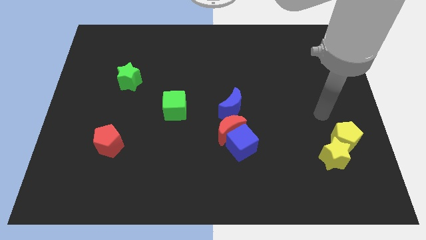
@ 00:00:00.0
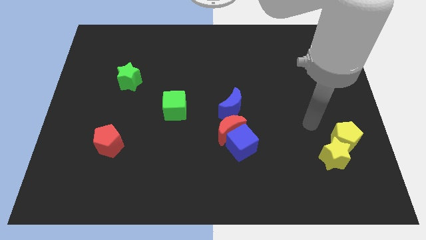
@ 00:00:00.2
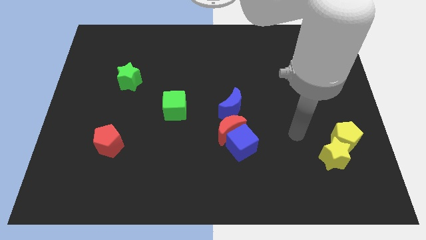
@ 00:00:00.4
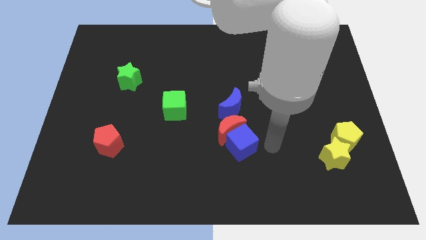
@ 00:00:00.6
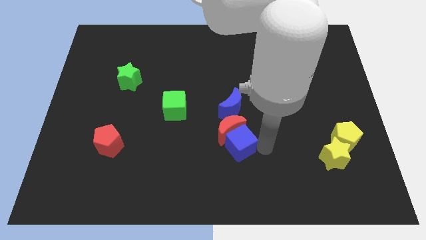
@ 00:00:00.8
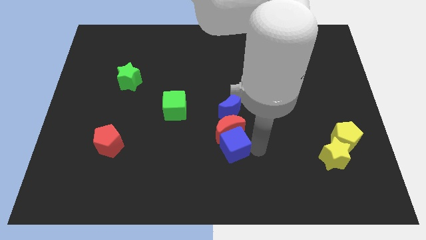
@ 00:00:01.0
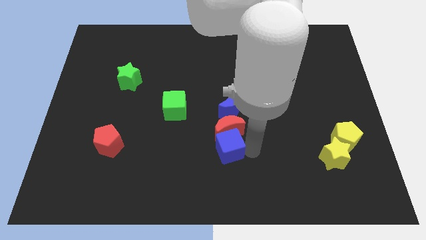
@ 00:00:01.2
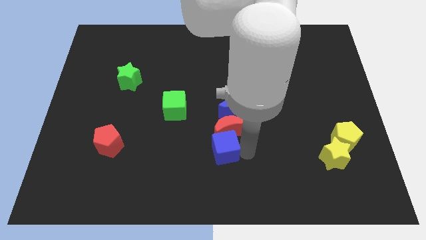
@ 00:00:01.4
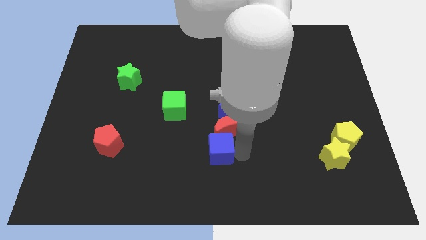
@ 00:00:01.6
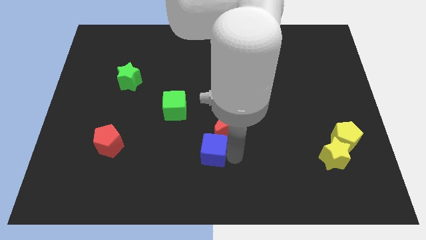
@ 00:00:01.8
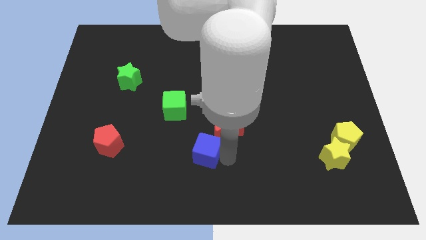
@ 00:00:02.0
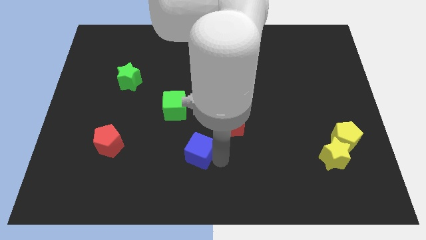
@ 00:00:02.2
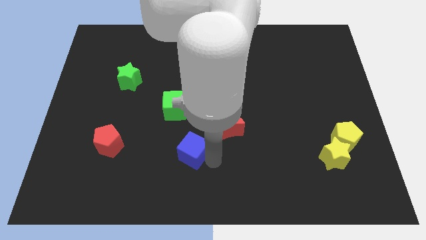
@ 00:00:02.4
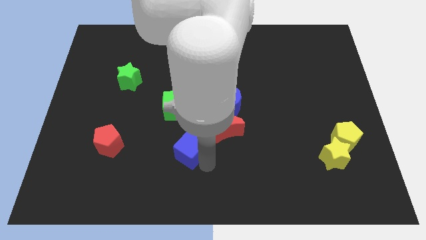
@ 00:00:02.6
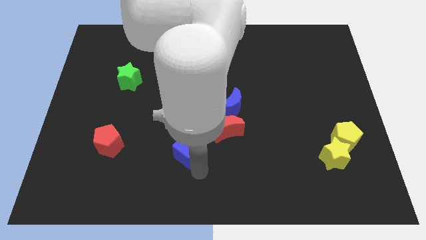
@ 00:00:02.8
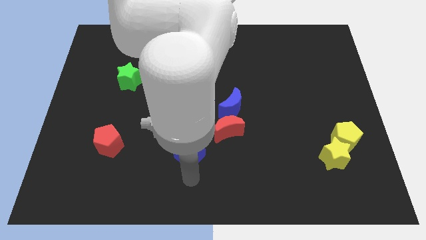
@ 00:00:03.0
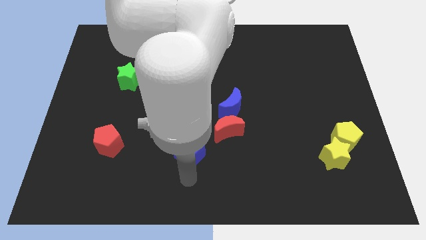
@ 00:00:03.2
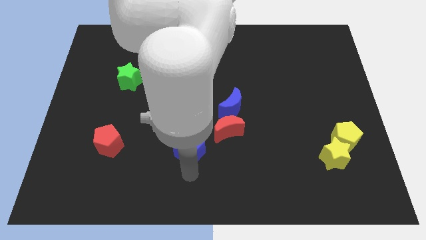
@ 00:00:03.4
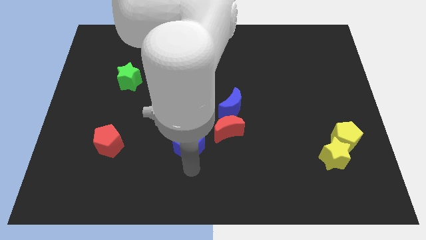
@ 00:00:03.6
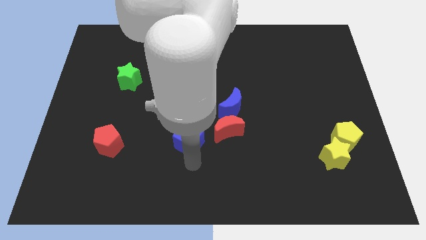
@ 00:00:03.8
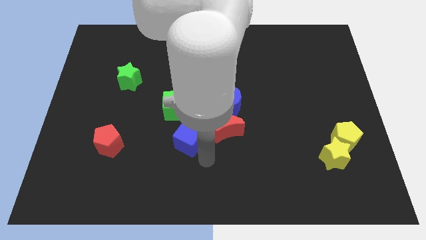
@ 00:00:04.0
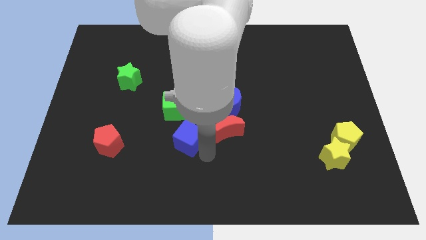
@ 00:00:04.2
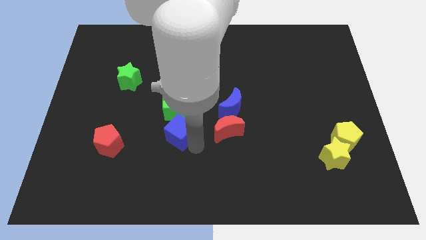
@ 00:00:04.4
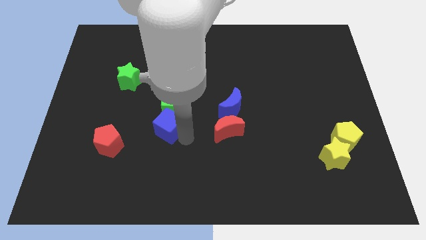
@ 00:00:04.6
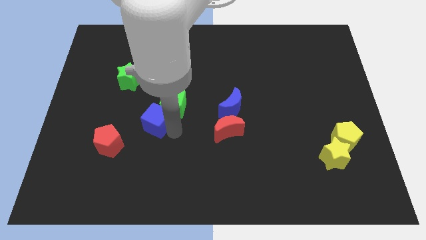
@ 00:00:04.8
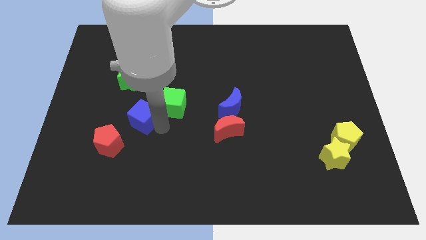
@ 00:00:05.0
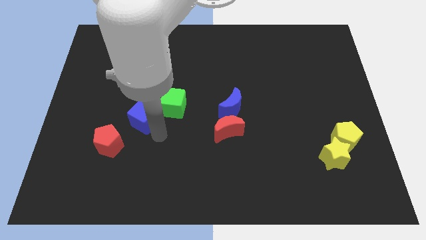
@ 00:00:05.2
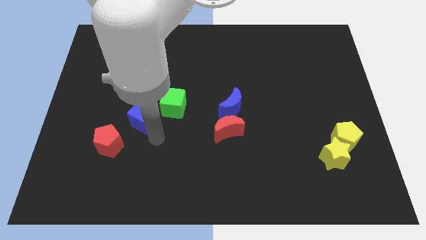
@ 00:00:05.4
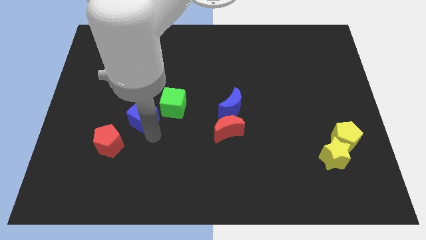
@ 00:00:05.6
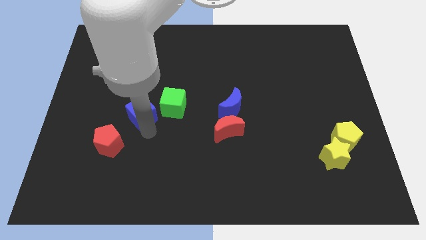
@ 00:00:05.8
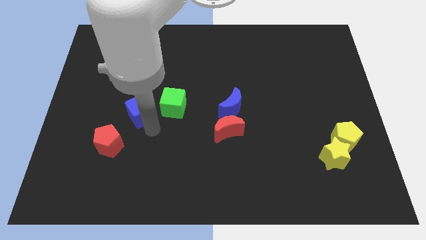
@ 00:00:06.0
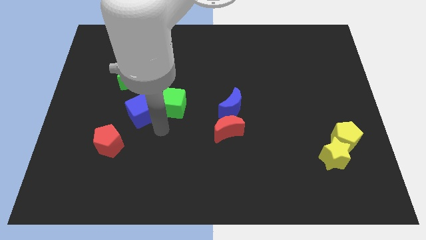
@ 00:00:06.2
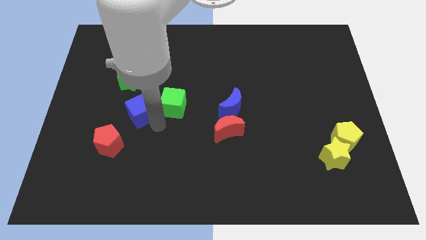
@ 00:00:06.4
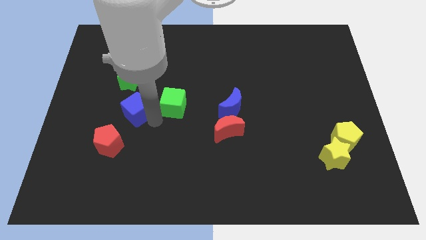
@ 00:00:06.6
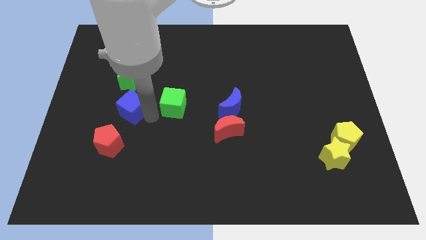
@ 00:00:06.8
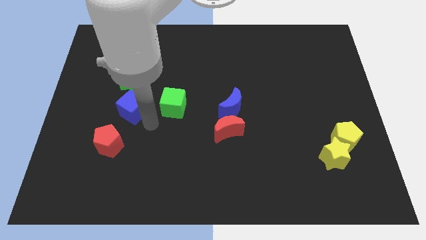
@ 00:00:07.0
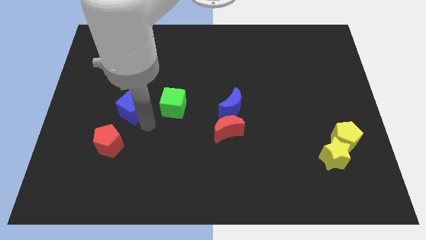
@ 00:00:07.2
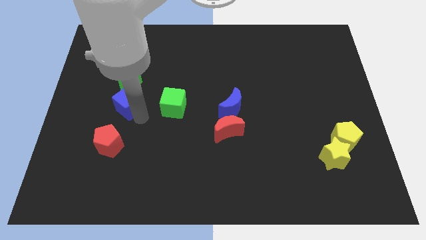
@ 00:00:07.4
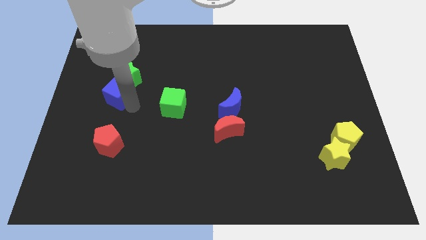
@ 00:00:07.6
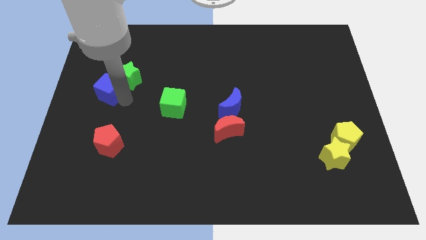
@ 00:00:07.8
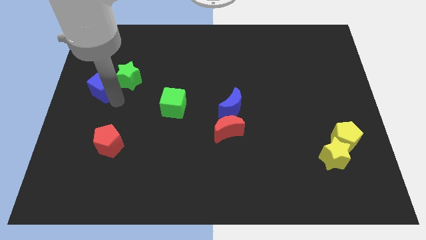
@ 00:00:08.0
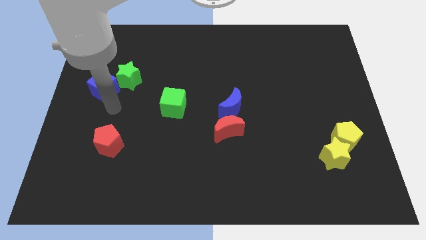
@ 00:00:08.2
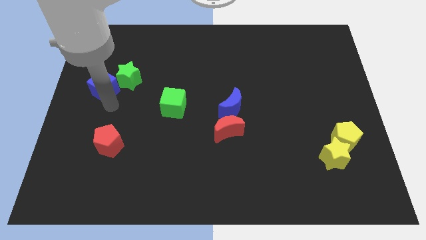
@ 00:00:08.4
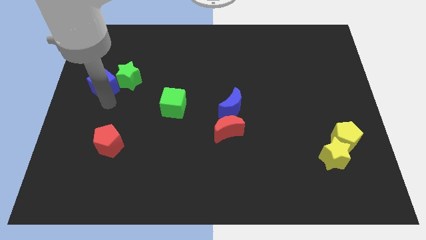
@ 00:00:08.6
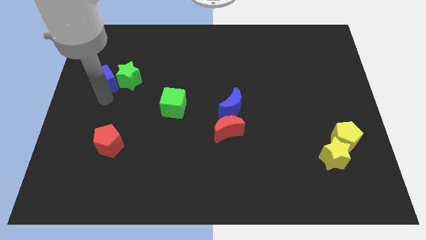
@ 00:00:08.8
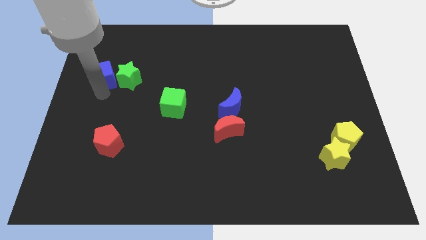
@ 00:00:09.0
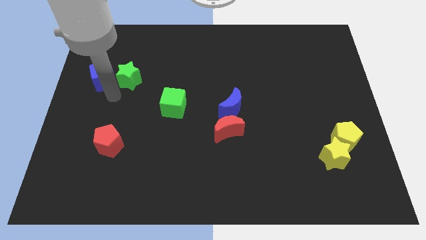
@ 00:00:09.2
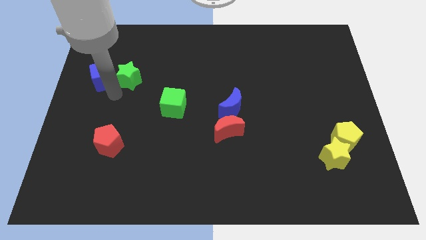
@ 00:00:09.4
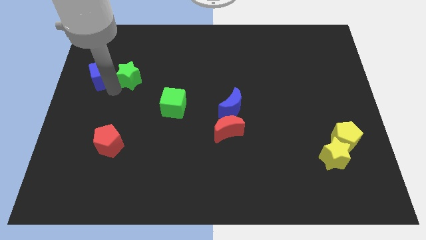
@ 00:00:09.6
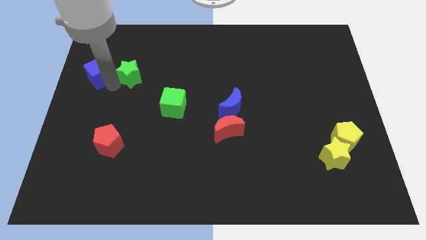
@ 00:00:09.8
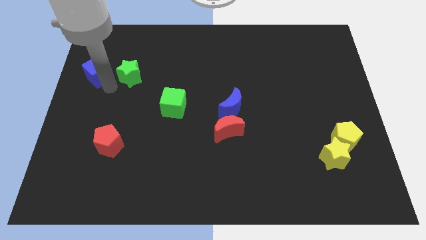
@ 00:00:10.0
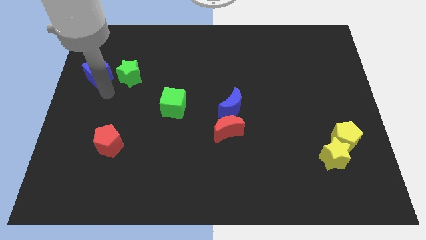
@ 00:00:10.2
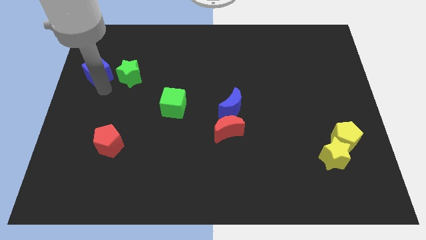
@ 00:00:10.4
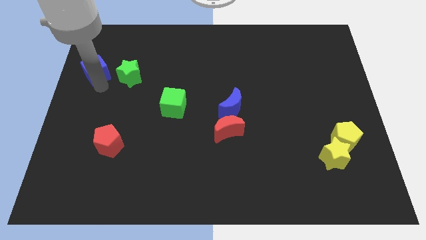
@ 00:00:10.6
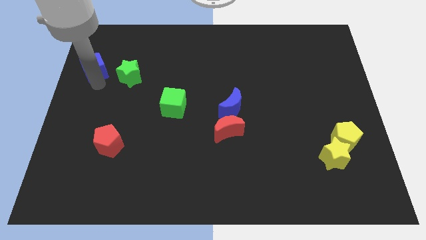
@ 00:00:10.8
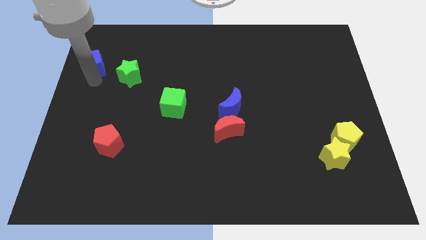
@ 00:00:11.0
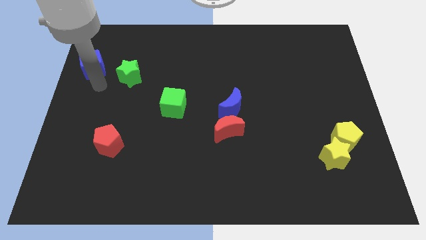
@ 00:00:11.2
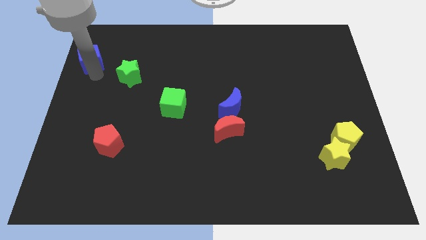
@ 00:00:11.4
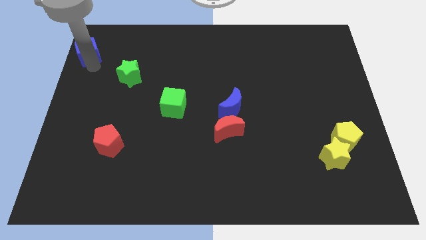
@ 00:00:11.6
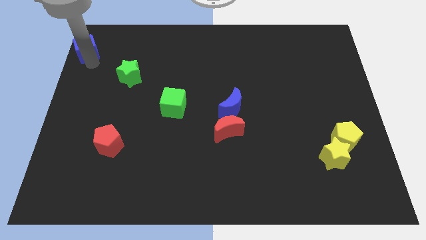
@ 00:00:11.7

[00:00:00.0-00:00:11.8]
move the blue cube to the upper left corner

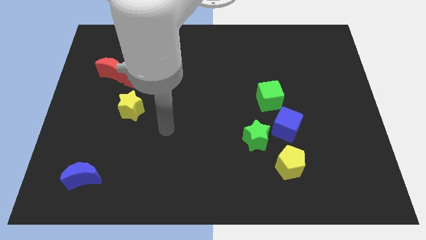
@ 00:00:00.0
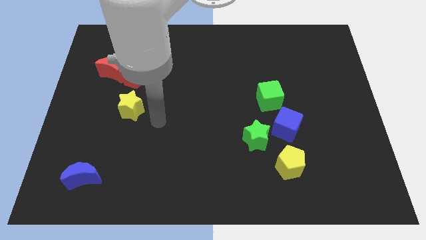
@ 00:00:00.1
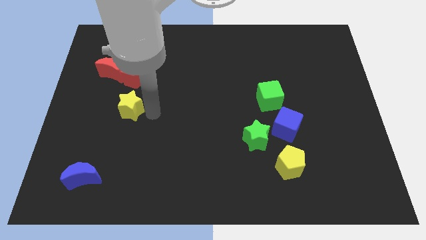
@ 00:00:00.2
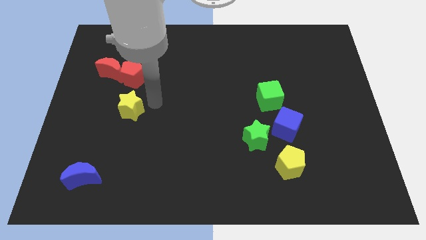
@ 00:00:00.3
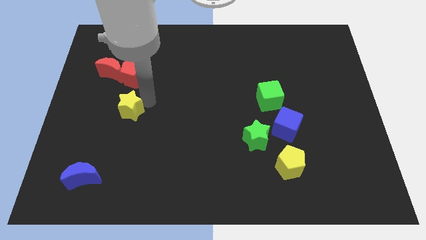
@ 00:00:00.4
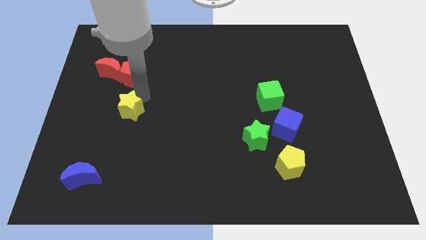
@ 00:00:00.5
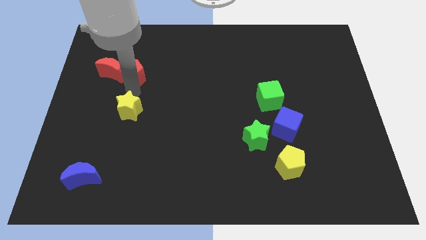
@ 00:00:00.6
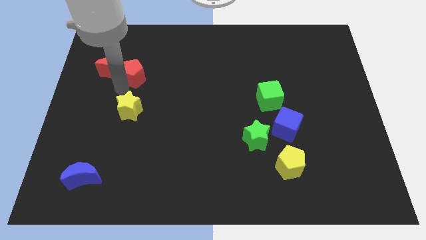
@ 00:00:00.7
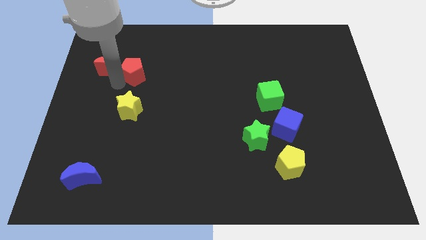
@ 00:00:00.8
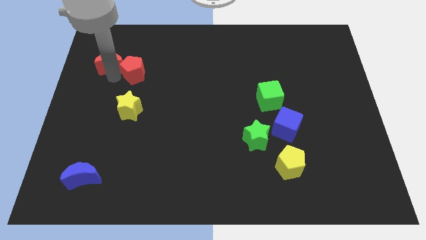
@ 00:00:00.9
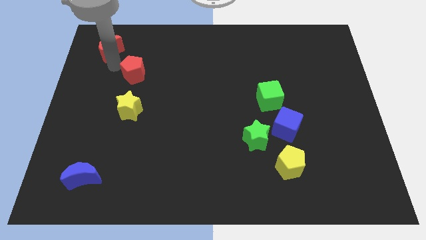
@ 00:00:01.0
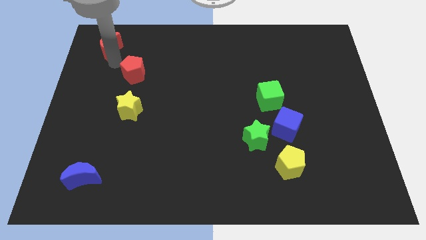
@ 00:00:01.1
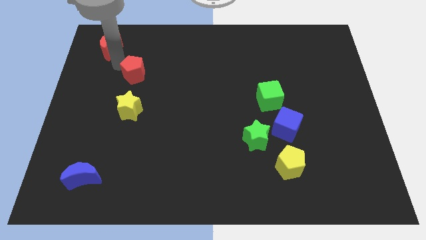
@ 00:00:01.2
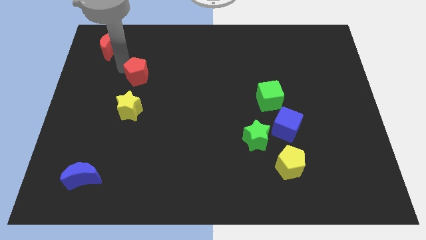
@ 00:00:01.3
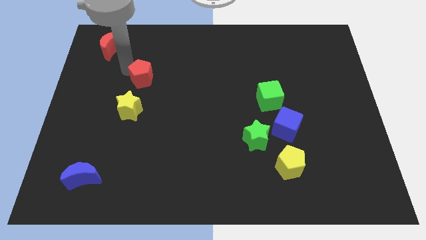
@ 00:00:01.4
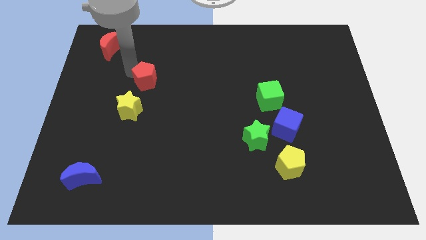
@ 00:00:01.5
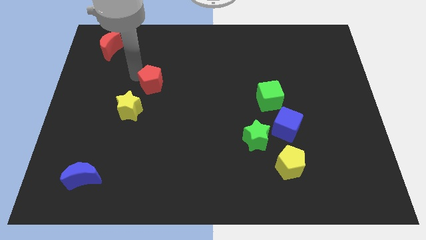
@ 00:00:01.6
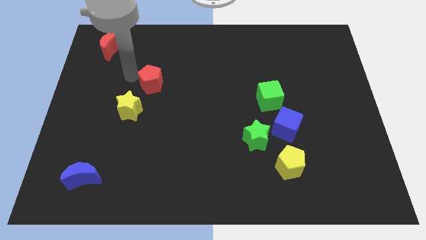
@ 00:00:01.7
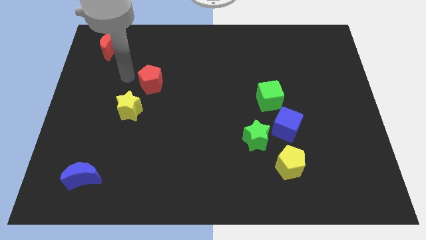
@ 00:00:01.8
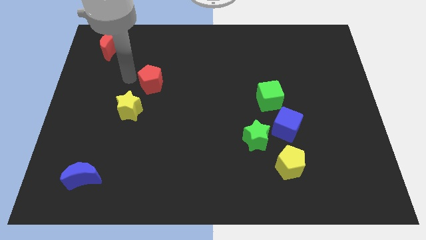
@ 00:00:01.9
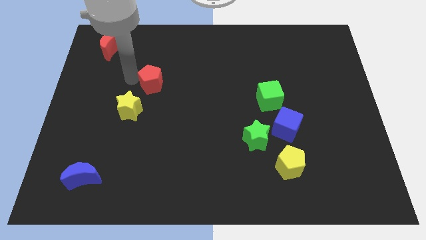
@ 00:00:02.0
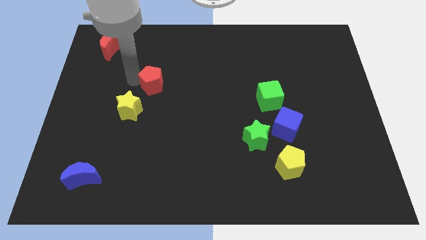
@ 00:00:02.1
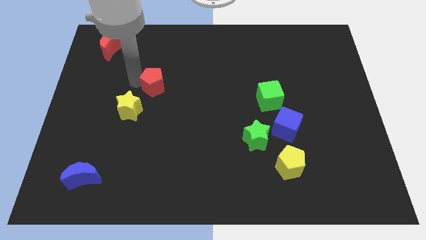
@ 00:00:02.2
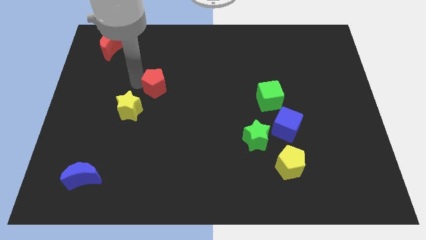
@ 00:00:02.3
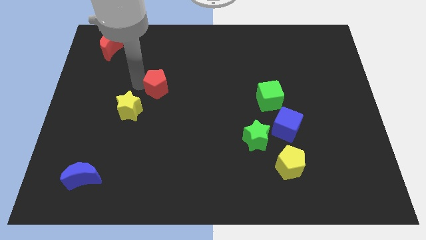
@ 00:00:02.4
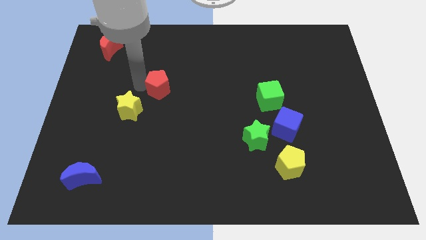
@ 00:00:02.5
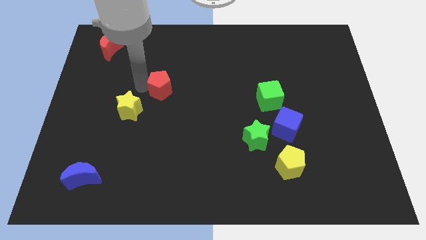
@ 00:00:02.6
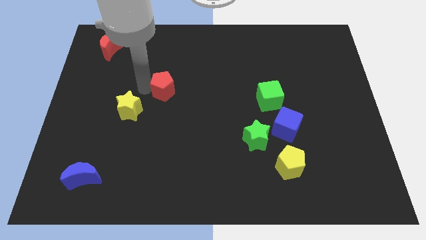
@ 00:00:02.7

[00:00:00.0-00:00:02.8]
push the red pentagon to the center
